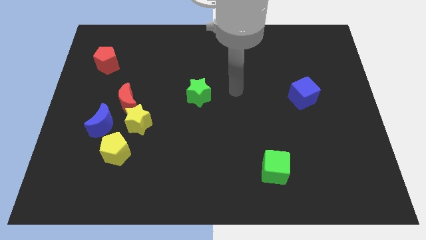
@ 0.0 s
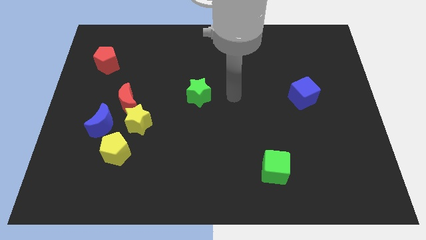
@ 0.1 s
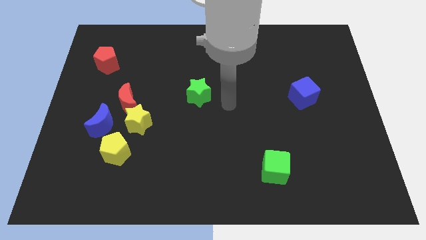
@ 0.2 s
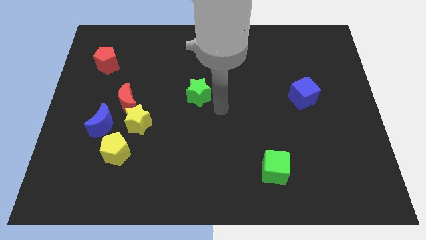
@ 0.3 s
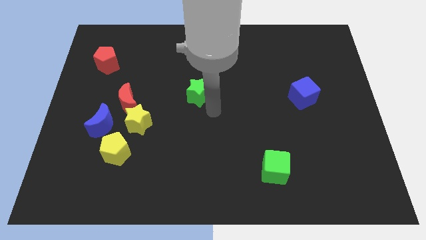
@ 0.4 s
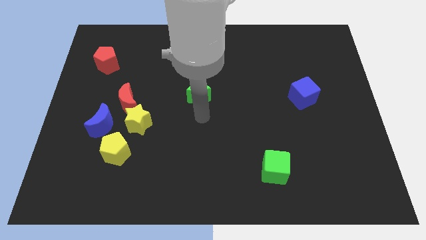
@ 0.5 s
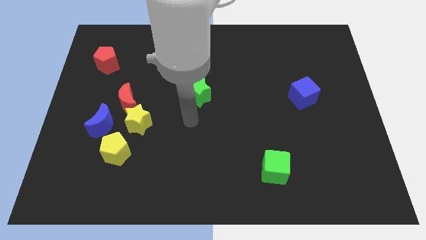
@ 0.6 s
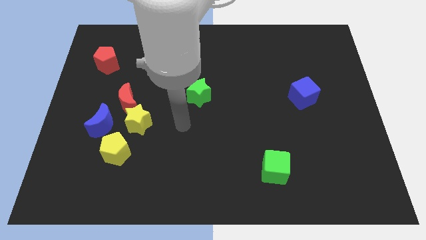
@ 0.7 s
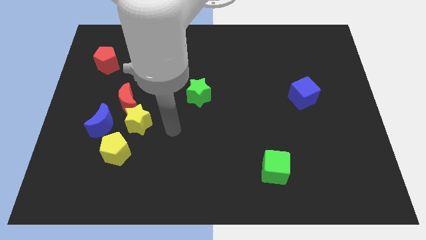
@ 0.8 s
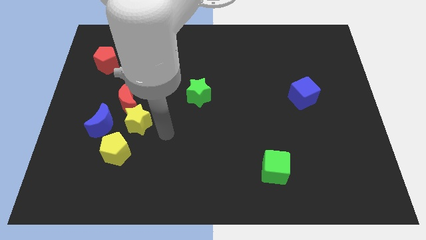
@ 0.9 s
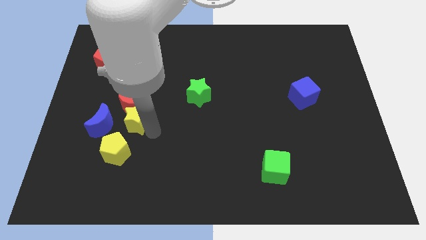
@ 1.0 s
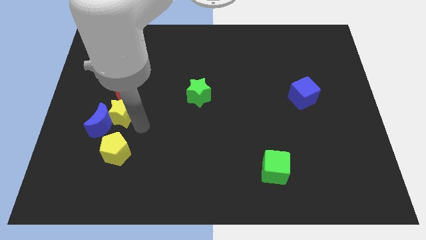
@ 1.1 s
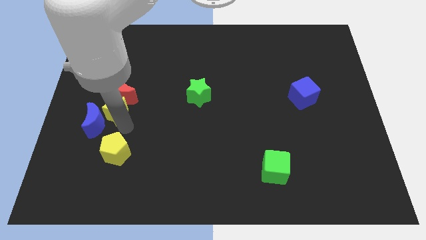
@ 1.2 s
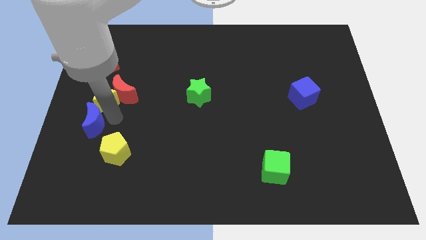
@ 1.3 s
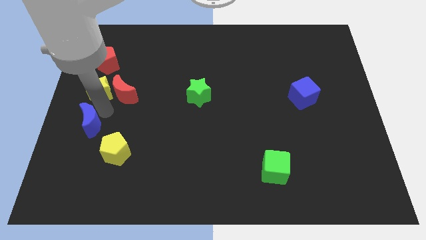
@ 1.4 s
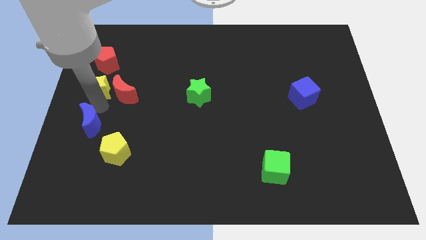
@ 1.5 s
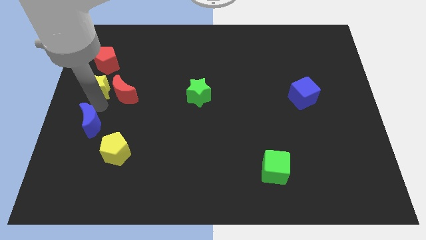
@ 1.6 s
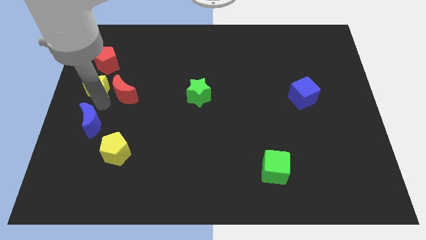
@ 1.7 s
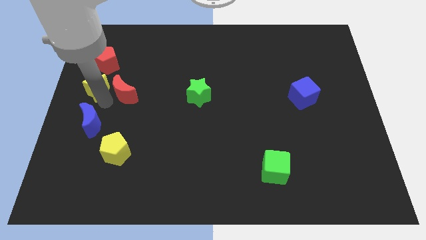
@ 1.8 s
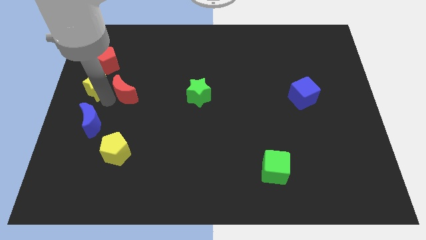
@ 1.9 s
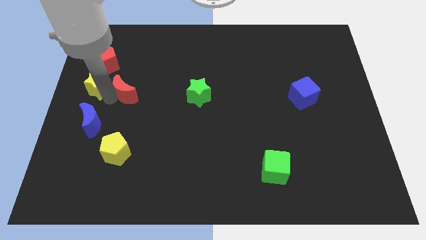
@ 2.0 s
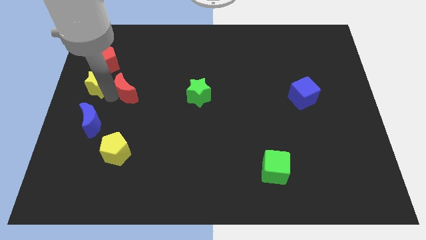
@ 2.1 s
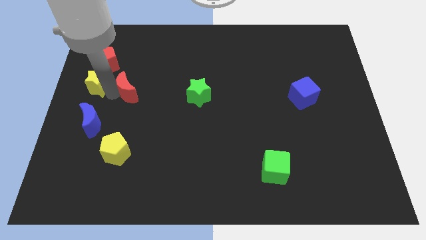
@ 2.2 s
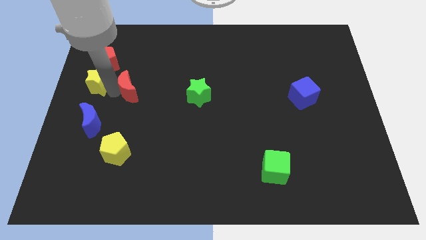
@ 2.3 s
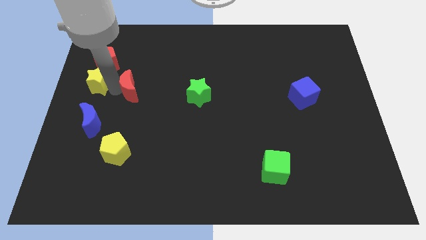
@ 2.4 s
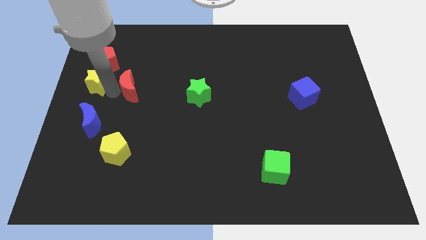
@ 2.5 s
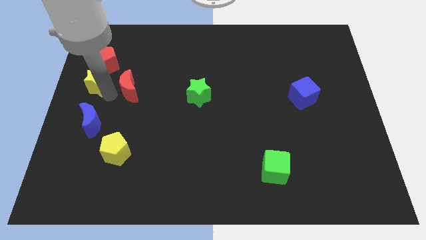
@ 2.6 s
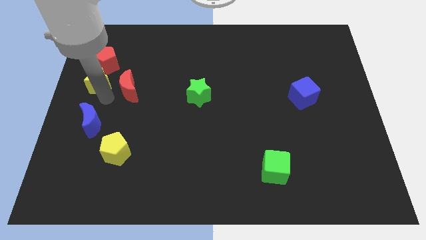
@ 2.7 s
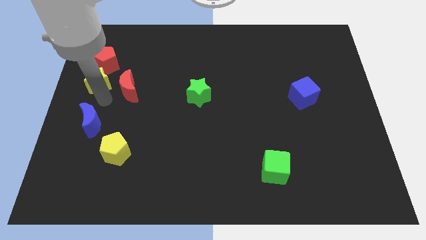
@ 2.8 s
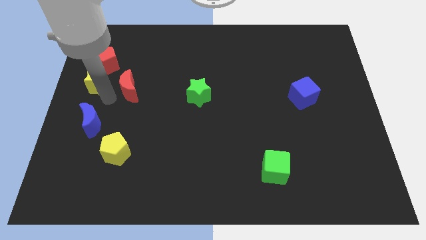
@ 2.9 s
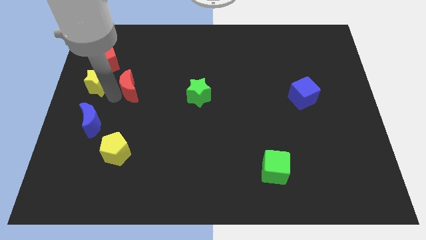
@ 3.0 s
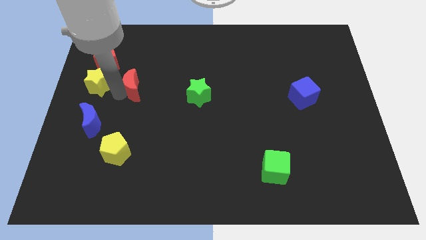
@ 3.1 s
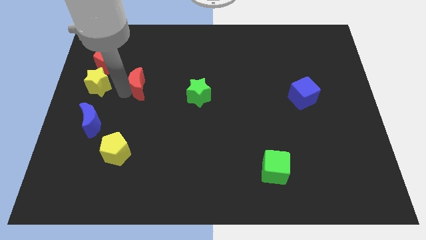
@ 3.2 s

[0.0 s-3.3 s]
separate the red moon from the yellow star and blue moon

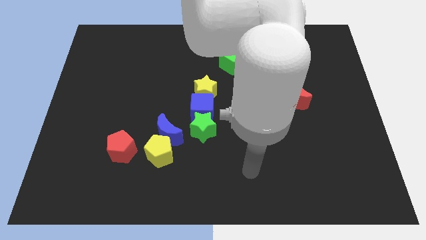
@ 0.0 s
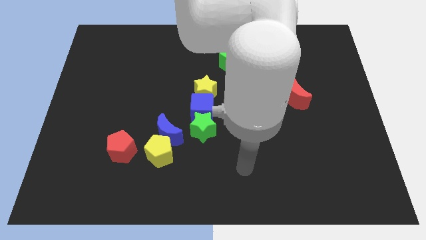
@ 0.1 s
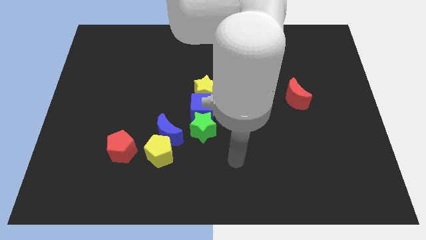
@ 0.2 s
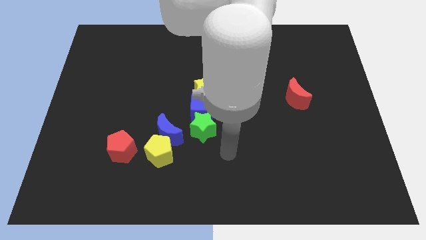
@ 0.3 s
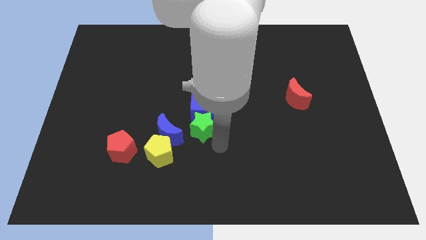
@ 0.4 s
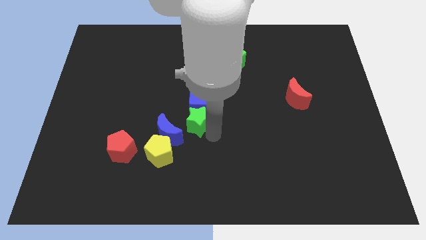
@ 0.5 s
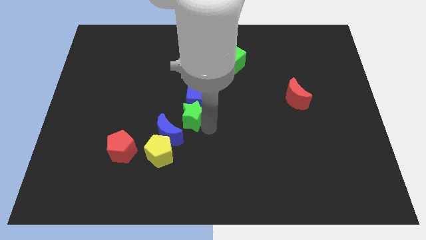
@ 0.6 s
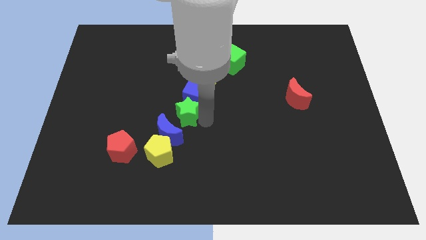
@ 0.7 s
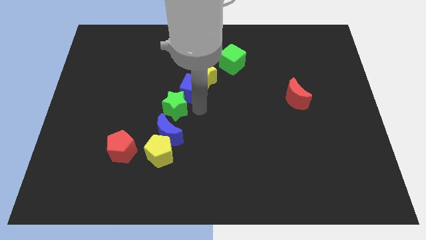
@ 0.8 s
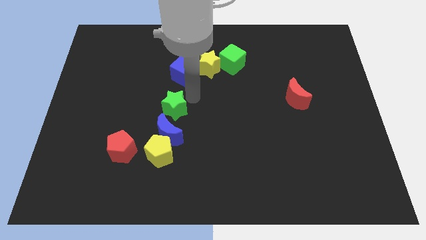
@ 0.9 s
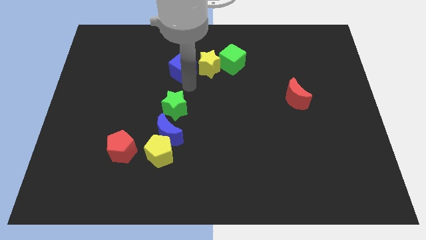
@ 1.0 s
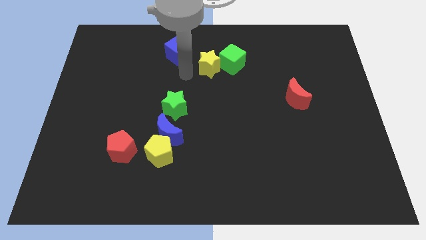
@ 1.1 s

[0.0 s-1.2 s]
pull the yellow star apart from the blue cube

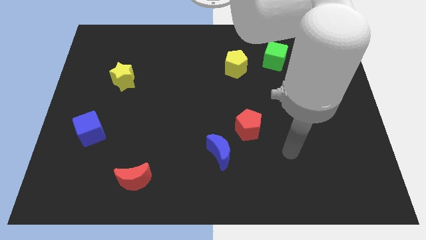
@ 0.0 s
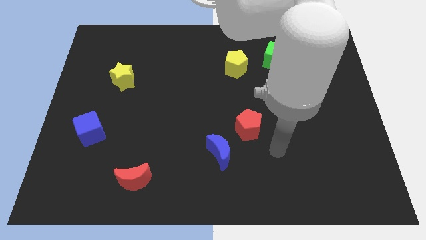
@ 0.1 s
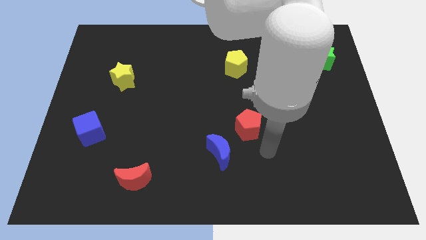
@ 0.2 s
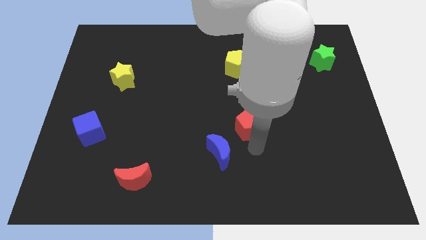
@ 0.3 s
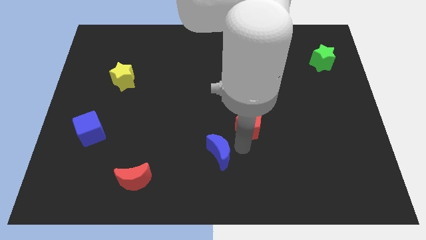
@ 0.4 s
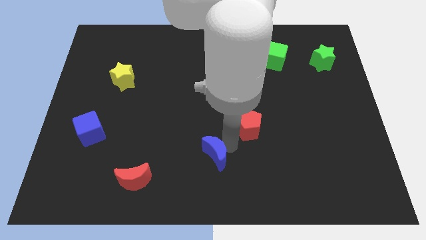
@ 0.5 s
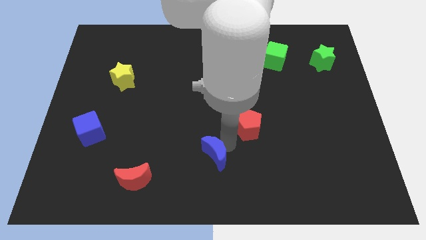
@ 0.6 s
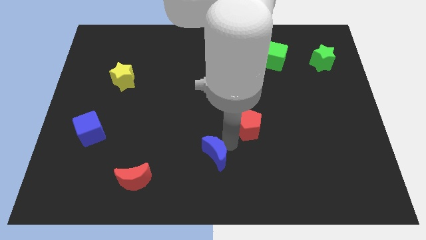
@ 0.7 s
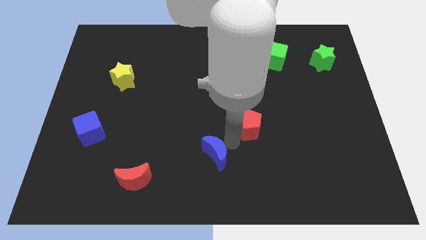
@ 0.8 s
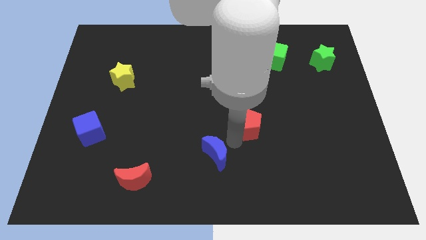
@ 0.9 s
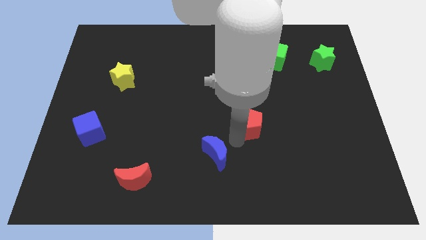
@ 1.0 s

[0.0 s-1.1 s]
pull the red pentagon apart from the blue moon

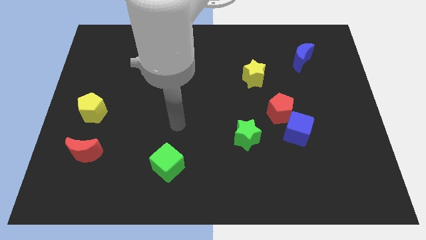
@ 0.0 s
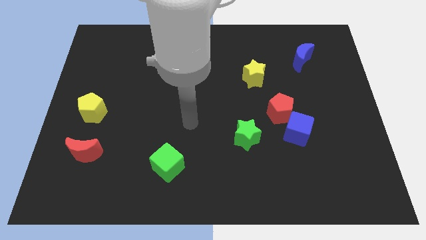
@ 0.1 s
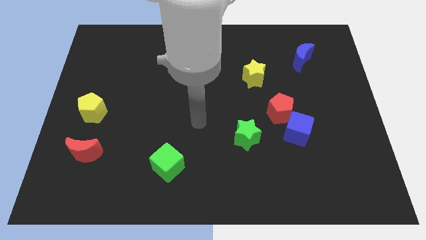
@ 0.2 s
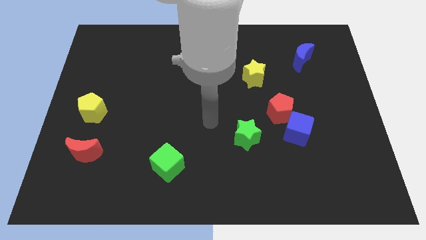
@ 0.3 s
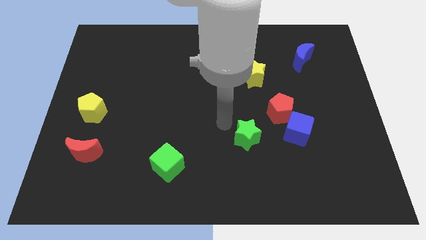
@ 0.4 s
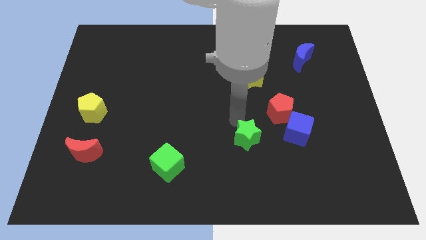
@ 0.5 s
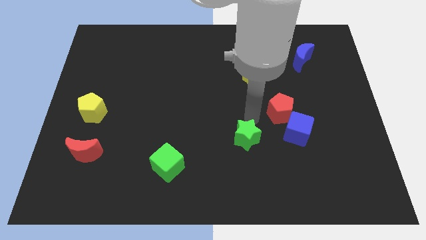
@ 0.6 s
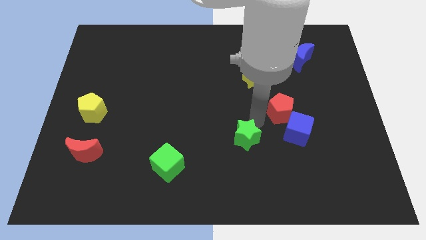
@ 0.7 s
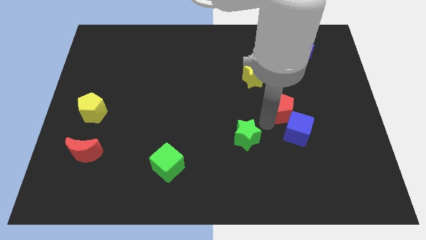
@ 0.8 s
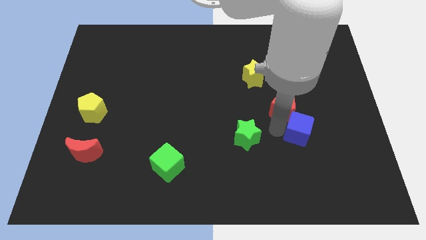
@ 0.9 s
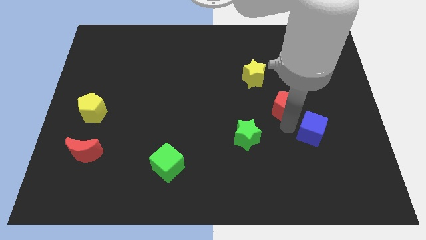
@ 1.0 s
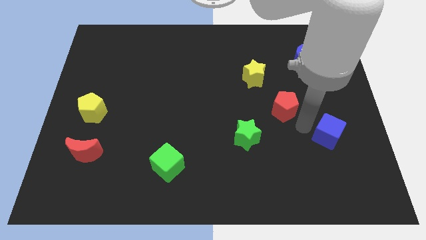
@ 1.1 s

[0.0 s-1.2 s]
move the red pentagon away from the blue cube

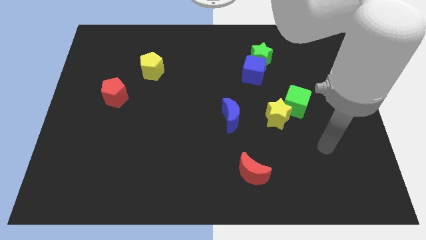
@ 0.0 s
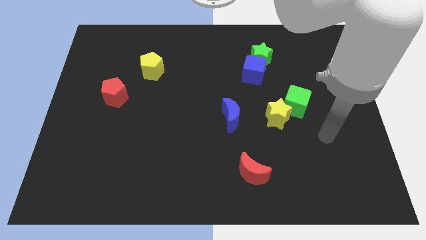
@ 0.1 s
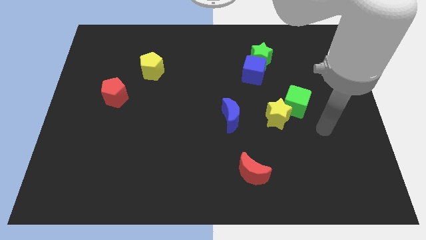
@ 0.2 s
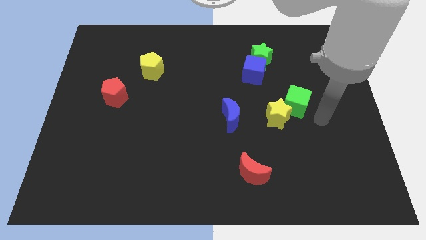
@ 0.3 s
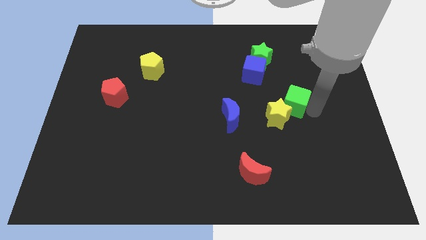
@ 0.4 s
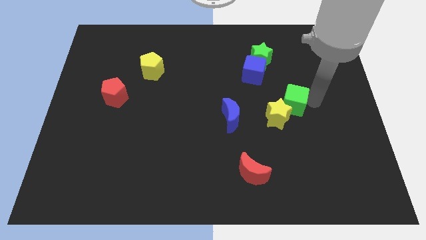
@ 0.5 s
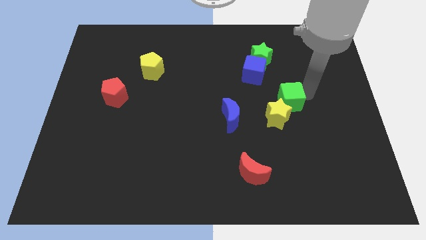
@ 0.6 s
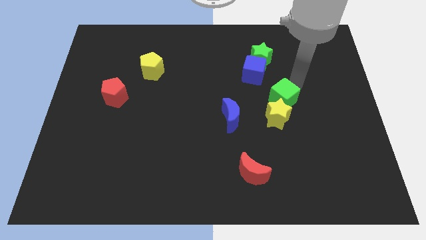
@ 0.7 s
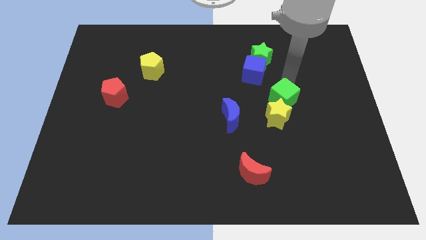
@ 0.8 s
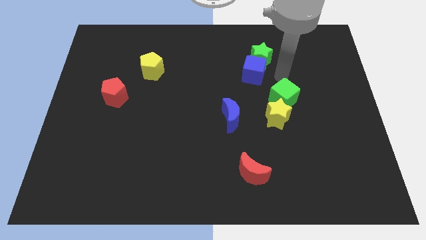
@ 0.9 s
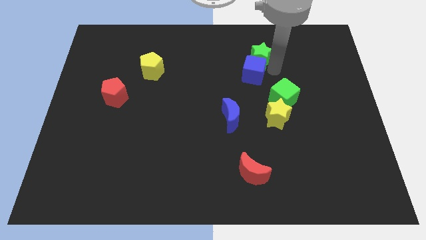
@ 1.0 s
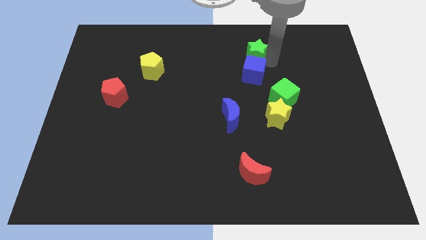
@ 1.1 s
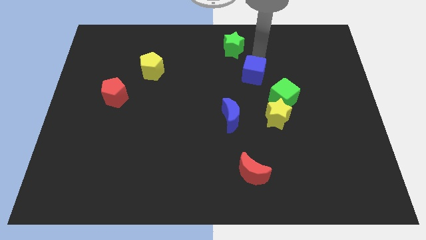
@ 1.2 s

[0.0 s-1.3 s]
move the blue cube away from the green star

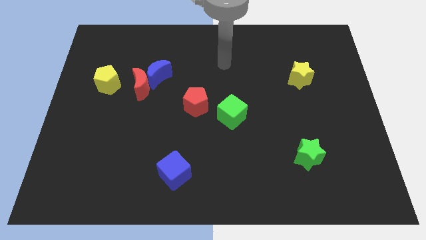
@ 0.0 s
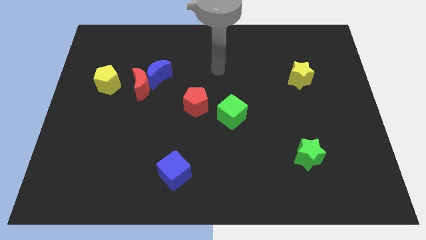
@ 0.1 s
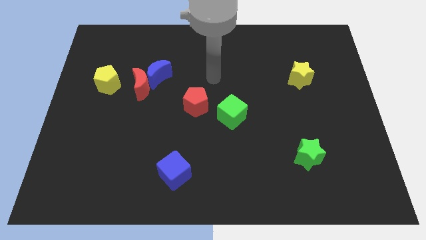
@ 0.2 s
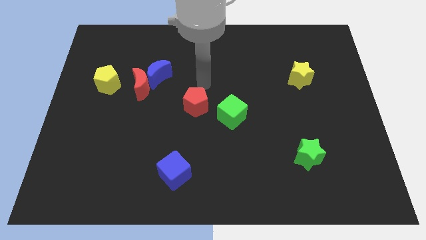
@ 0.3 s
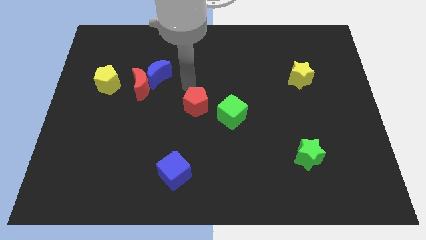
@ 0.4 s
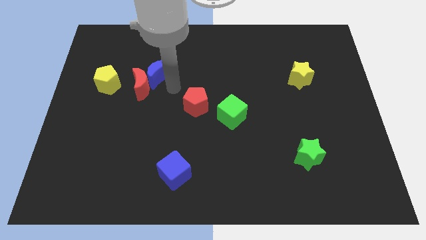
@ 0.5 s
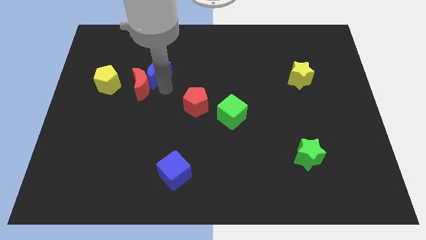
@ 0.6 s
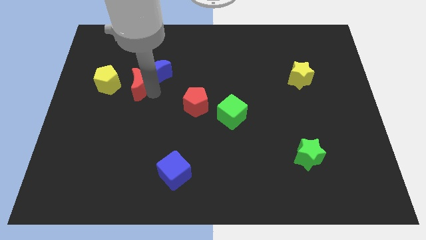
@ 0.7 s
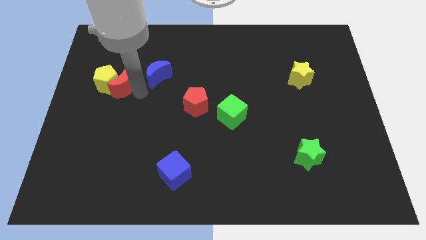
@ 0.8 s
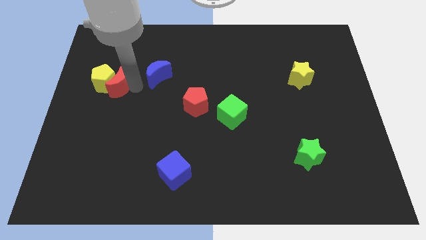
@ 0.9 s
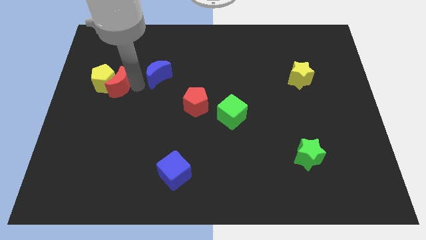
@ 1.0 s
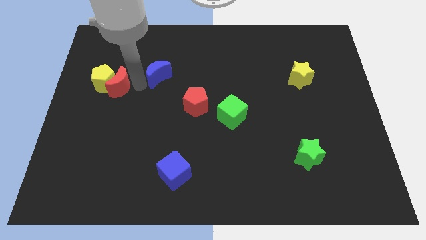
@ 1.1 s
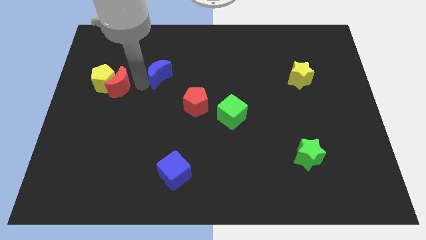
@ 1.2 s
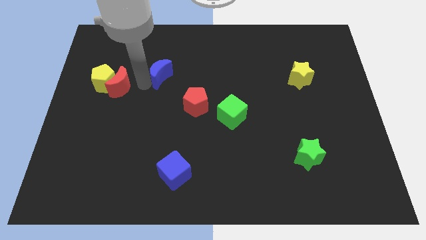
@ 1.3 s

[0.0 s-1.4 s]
move the blue moon away from the red moon

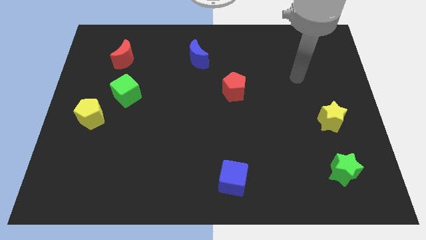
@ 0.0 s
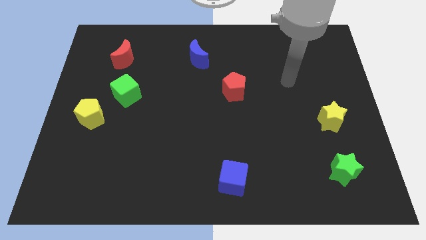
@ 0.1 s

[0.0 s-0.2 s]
pull the green cube apart from the yellow pentagon
